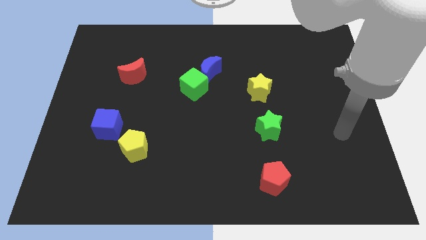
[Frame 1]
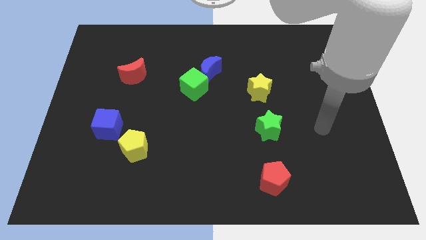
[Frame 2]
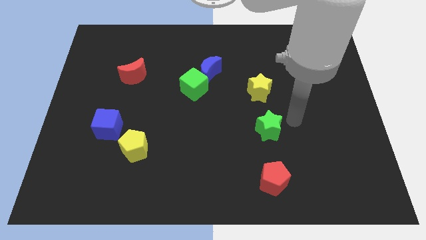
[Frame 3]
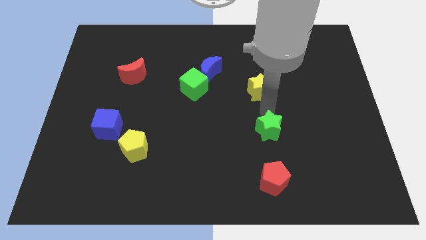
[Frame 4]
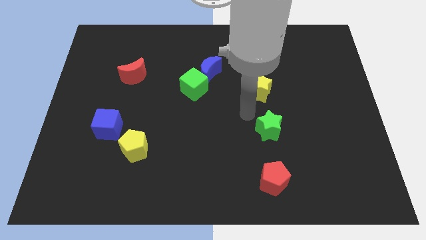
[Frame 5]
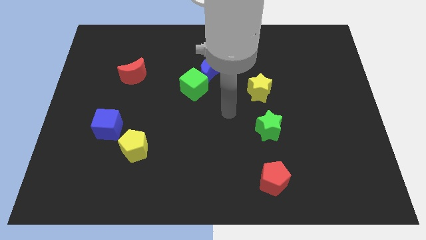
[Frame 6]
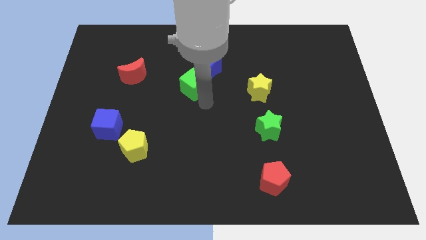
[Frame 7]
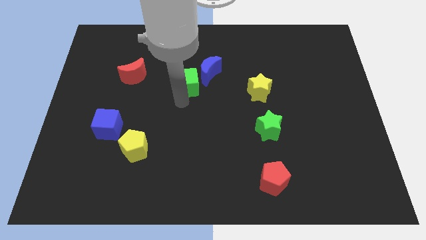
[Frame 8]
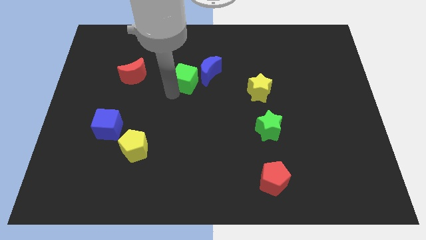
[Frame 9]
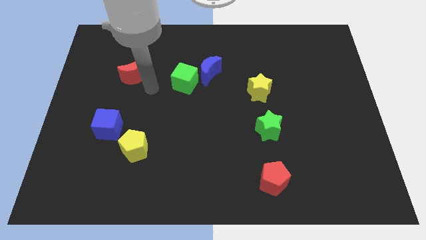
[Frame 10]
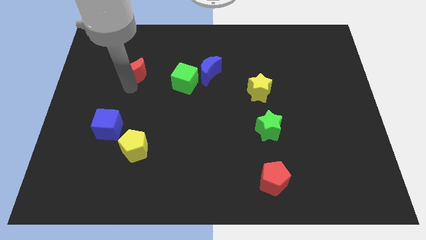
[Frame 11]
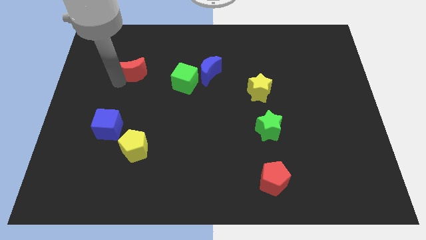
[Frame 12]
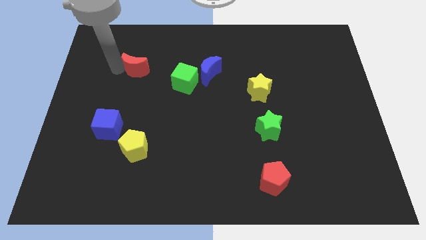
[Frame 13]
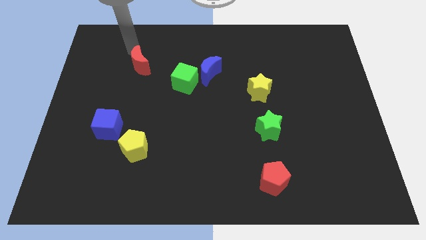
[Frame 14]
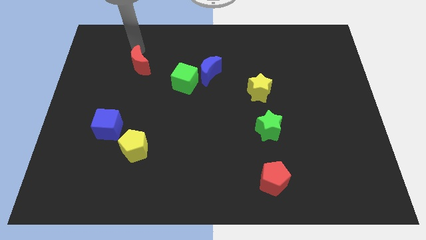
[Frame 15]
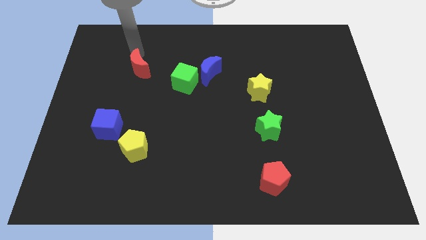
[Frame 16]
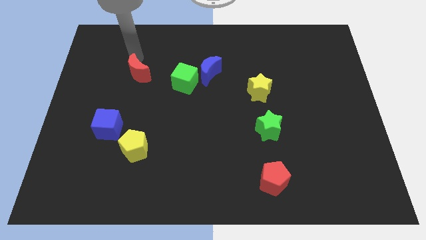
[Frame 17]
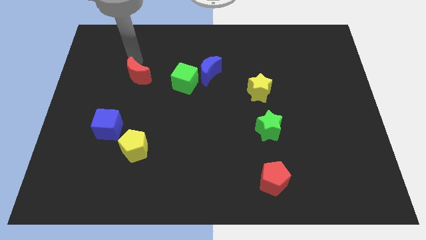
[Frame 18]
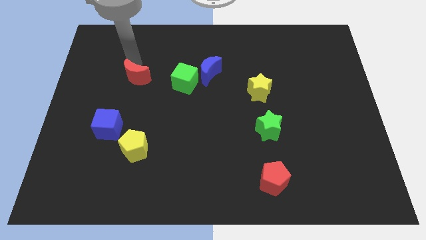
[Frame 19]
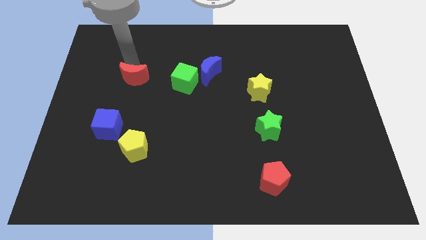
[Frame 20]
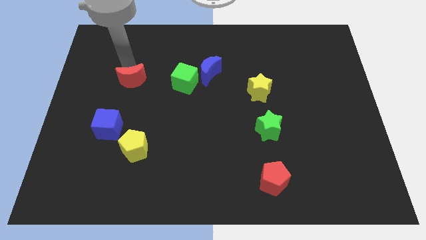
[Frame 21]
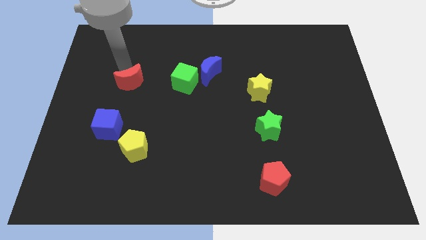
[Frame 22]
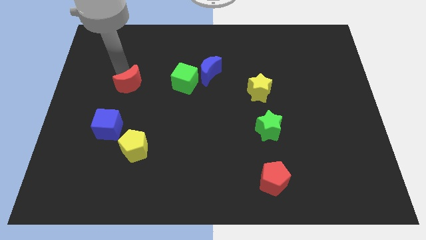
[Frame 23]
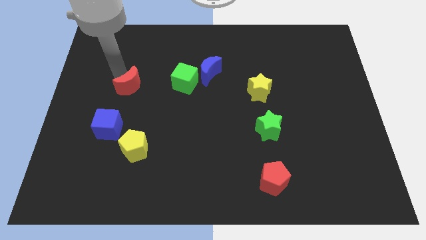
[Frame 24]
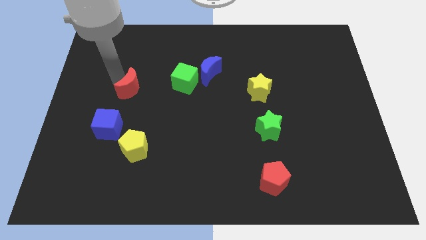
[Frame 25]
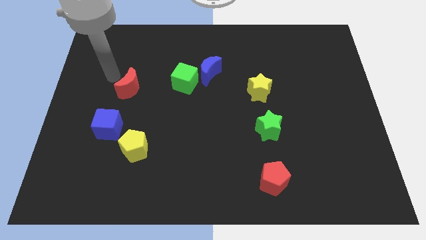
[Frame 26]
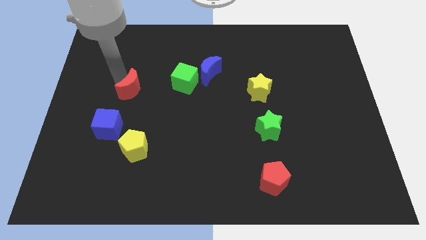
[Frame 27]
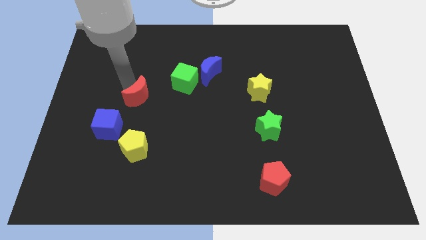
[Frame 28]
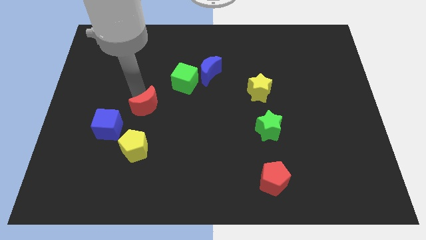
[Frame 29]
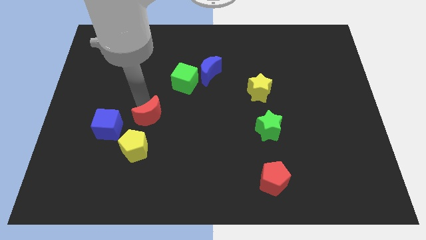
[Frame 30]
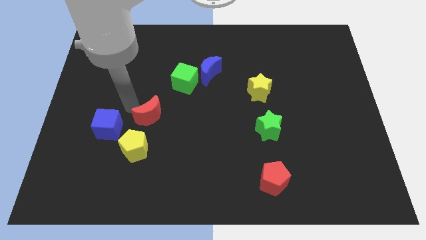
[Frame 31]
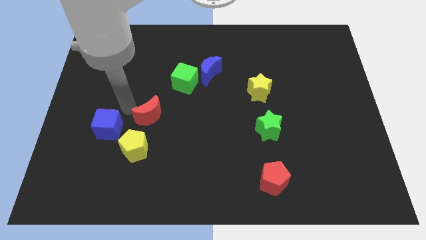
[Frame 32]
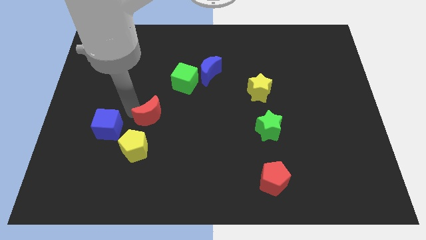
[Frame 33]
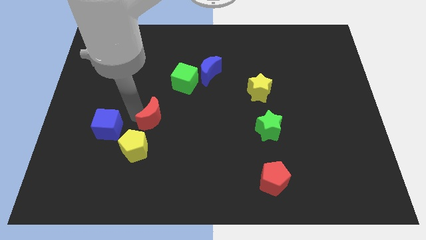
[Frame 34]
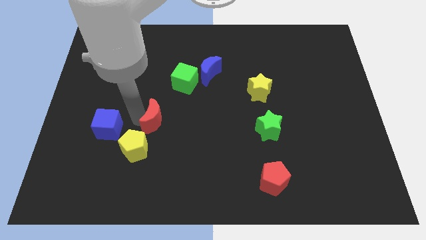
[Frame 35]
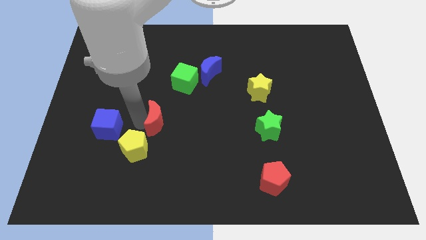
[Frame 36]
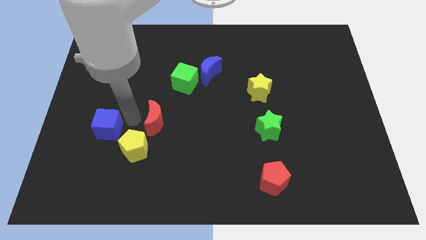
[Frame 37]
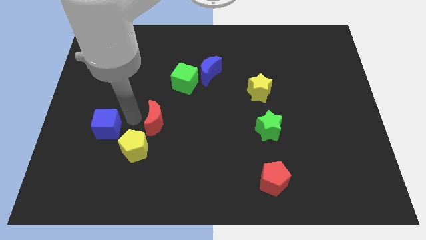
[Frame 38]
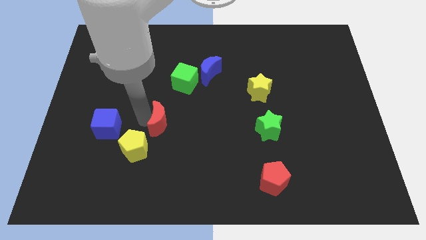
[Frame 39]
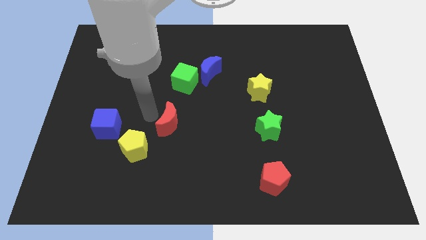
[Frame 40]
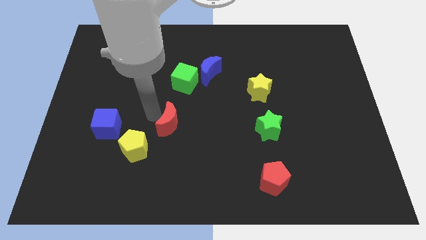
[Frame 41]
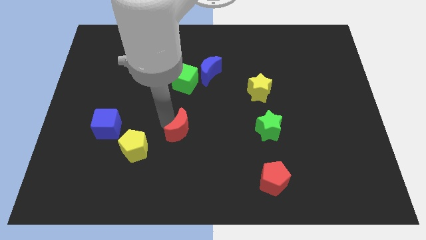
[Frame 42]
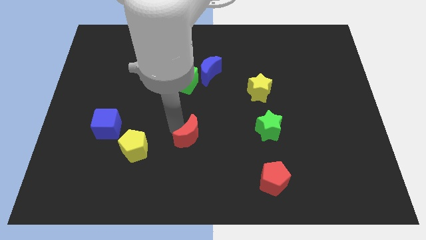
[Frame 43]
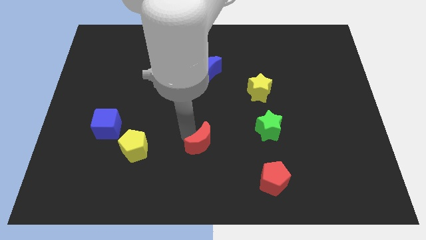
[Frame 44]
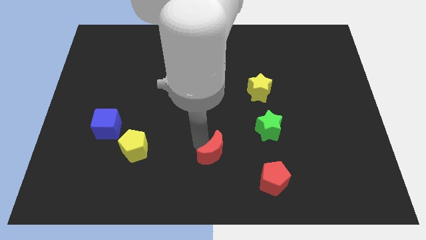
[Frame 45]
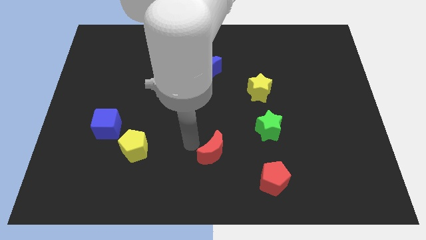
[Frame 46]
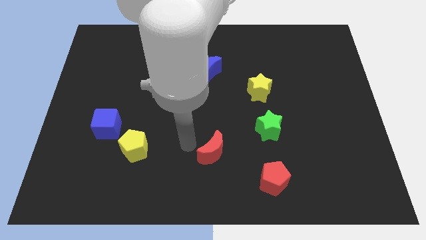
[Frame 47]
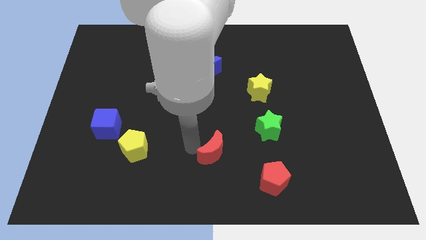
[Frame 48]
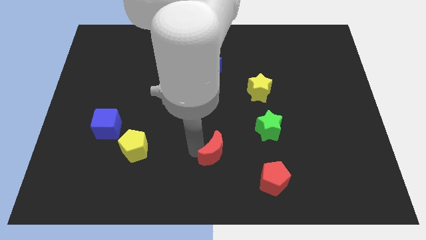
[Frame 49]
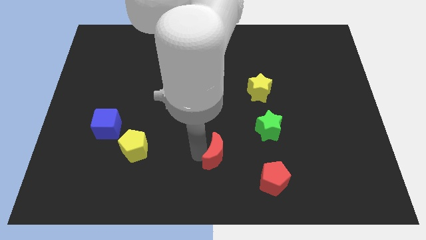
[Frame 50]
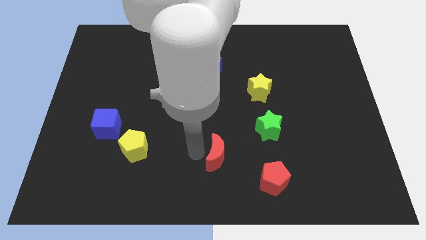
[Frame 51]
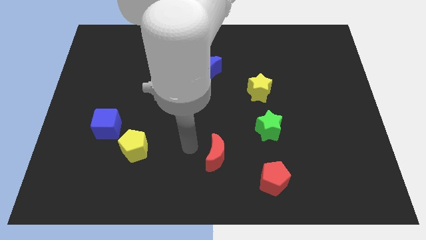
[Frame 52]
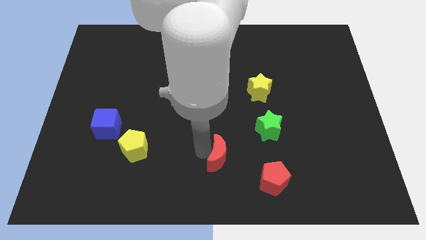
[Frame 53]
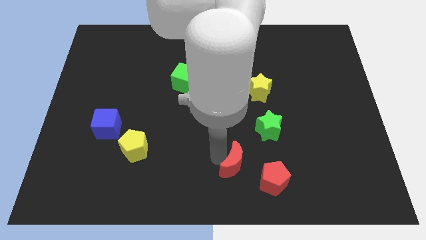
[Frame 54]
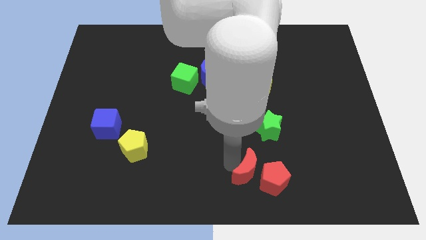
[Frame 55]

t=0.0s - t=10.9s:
move the red moon to the red pentagon

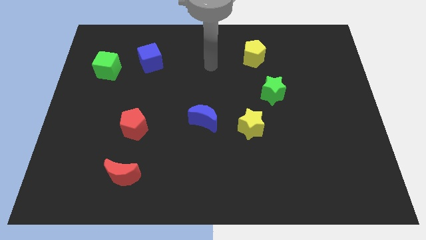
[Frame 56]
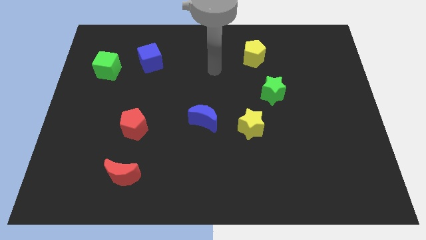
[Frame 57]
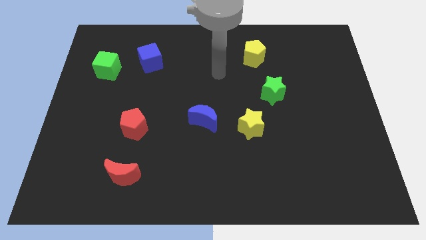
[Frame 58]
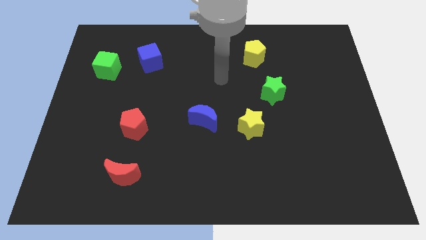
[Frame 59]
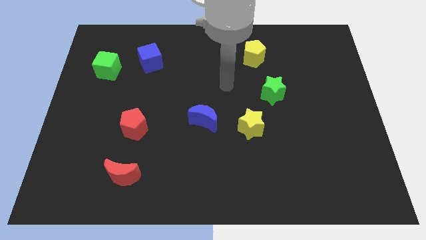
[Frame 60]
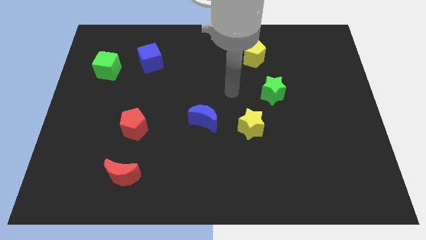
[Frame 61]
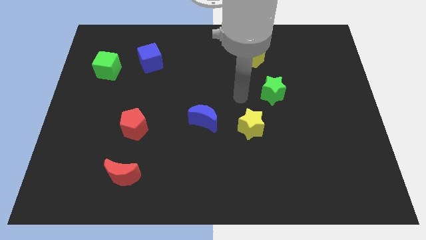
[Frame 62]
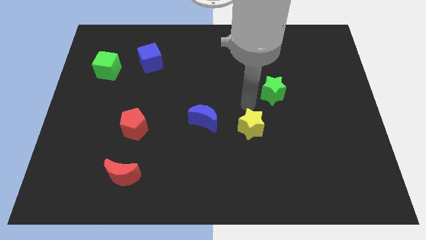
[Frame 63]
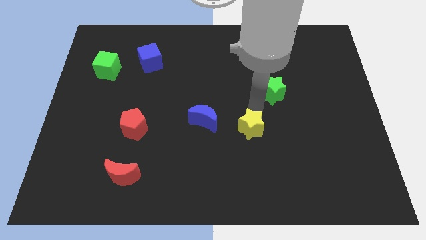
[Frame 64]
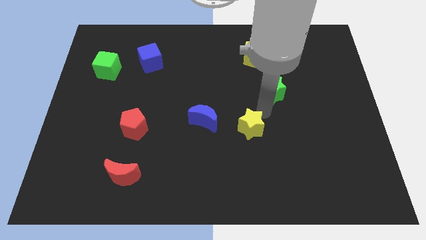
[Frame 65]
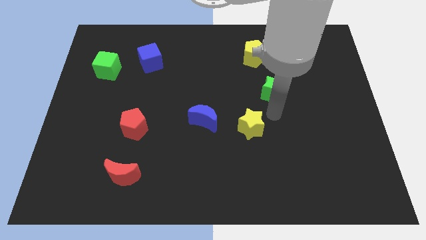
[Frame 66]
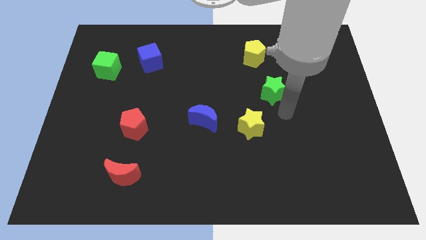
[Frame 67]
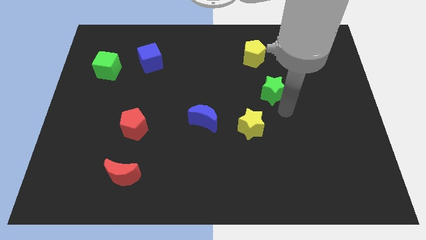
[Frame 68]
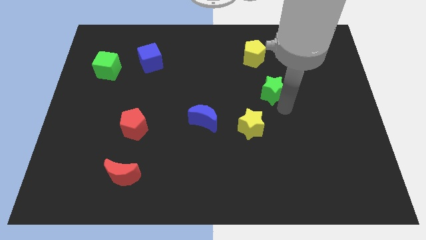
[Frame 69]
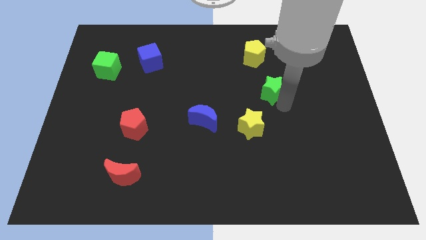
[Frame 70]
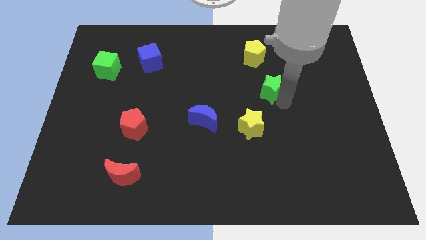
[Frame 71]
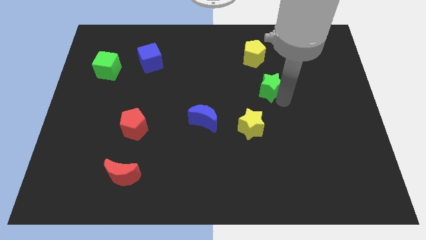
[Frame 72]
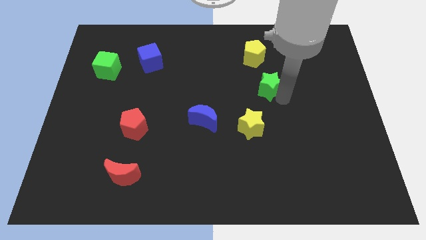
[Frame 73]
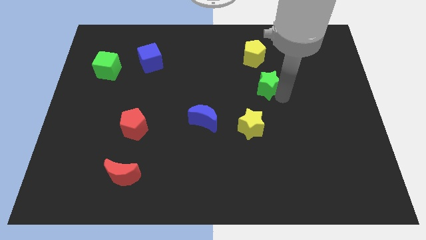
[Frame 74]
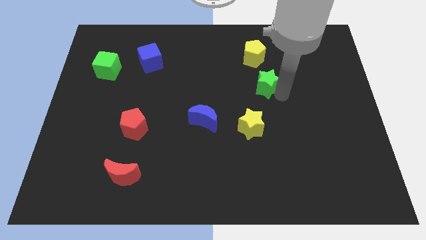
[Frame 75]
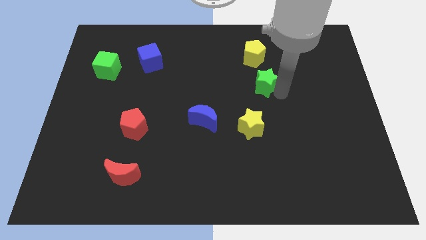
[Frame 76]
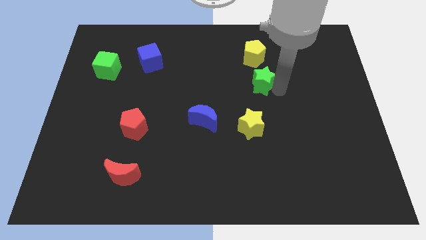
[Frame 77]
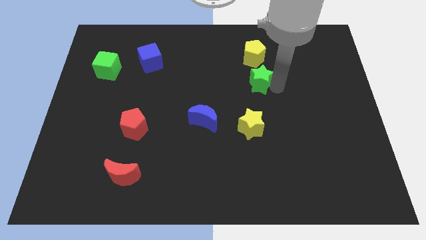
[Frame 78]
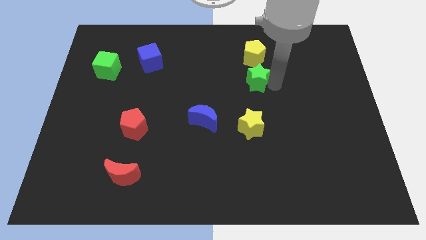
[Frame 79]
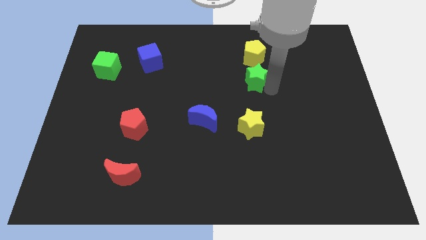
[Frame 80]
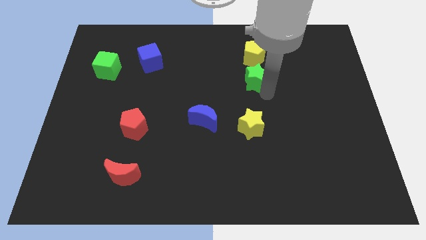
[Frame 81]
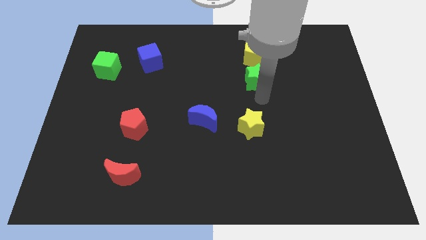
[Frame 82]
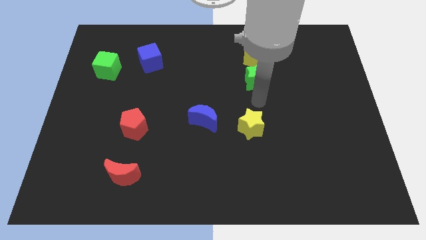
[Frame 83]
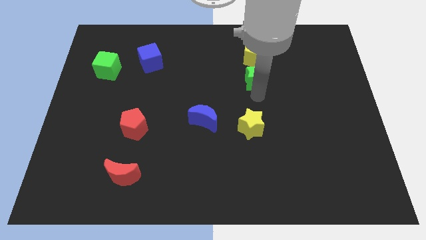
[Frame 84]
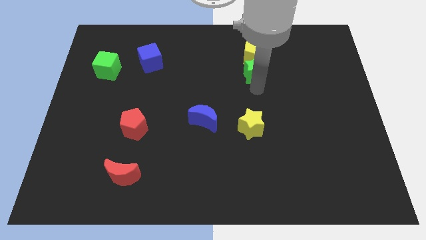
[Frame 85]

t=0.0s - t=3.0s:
move the green star to the yellow pentagon
